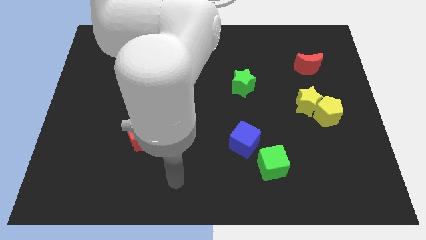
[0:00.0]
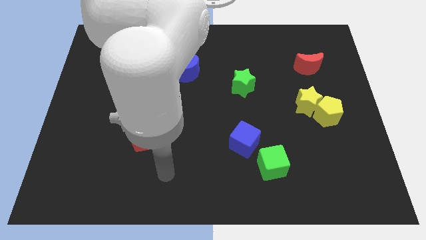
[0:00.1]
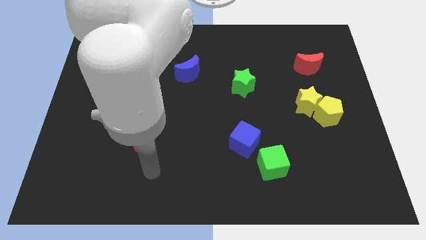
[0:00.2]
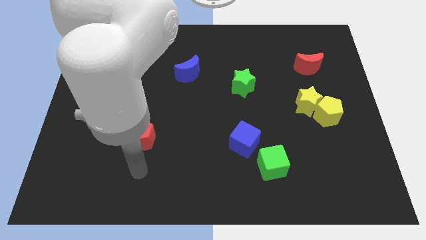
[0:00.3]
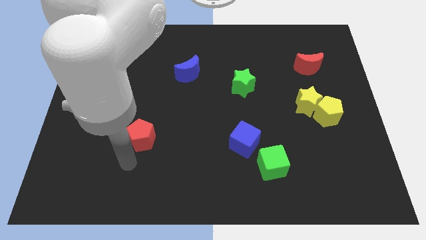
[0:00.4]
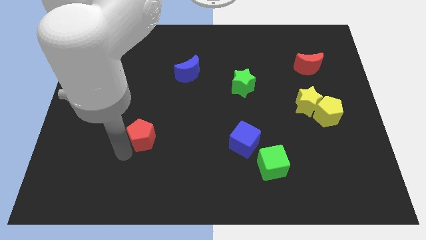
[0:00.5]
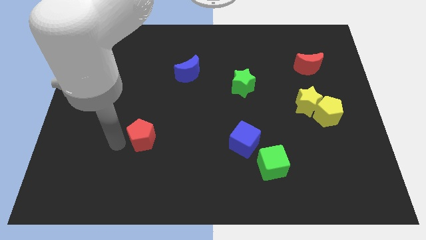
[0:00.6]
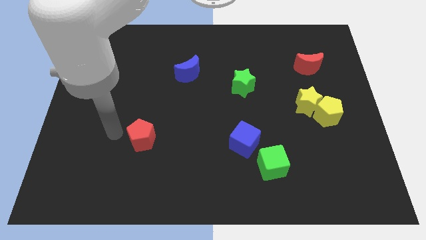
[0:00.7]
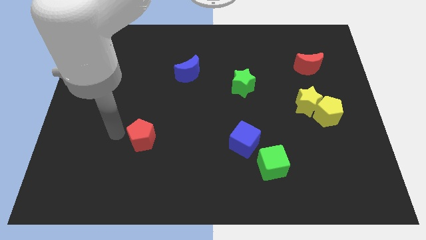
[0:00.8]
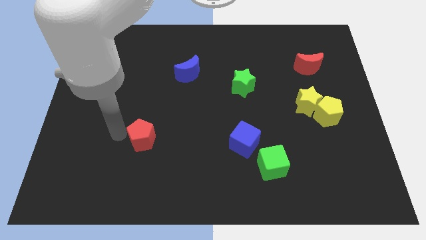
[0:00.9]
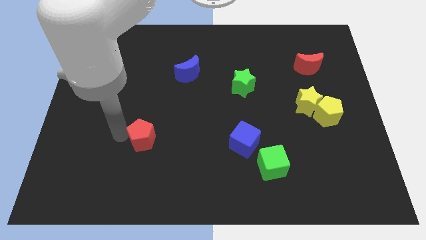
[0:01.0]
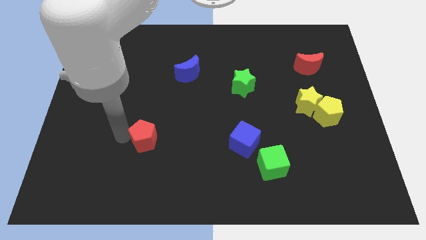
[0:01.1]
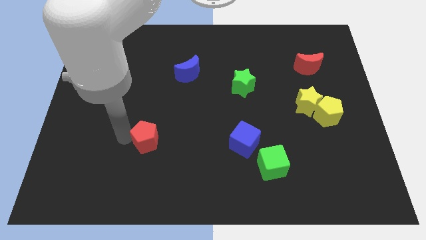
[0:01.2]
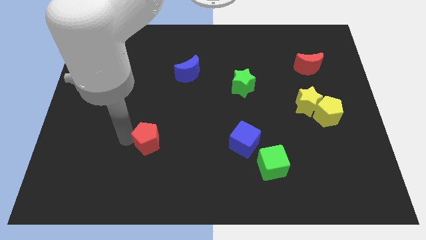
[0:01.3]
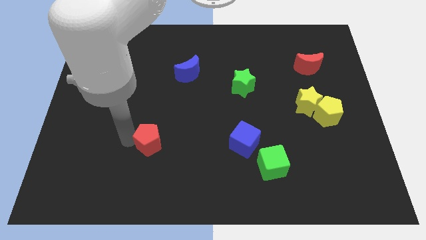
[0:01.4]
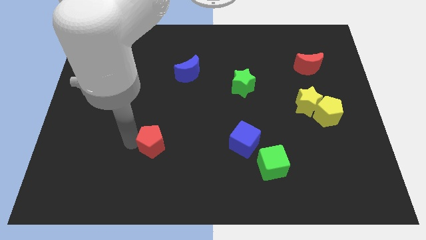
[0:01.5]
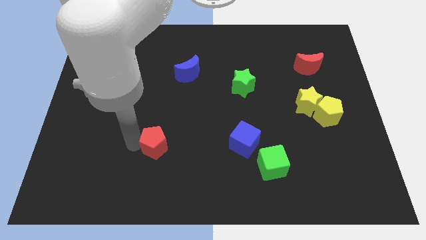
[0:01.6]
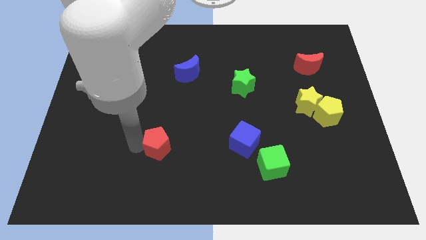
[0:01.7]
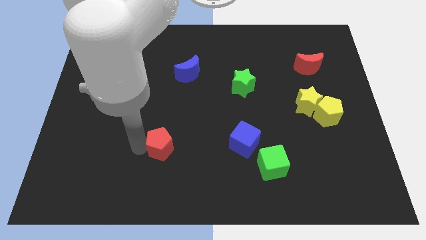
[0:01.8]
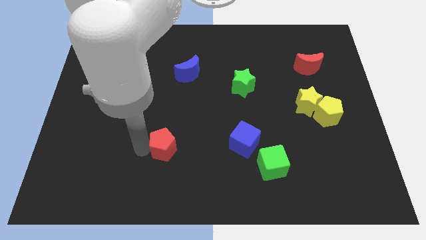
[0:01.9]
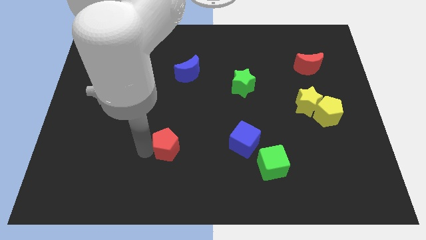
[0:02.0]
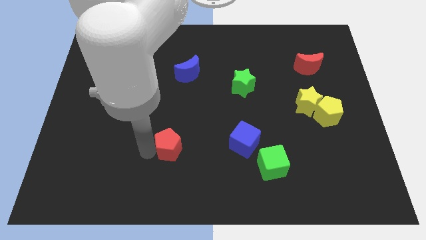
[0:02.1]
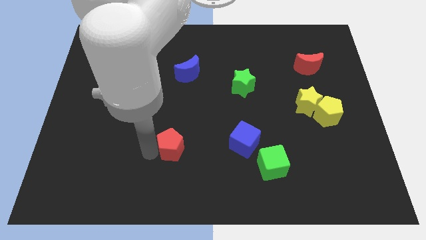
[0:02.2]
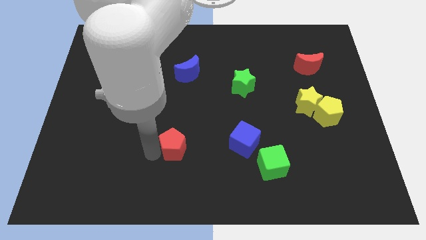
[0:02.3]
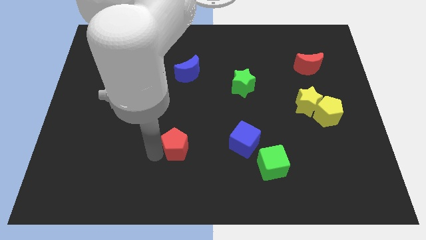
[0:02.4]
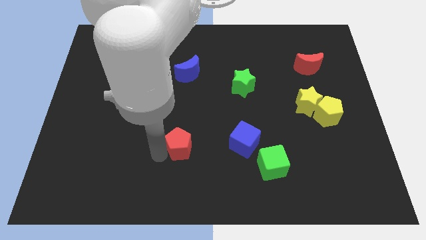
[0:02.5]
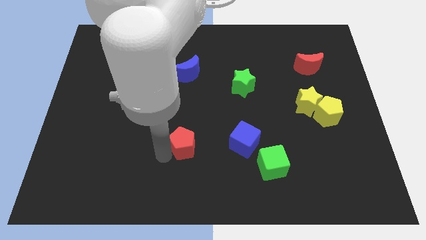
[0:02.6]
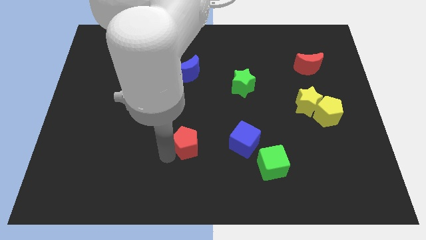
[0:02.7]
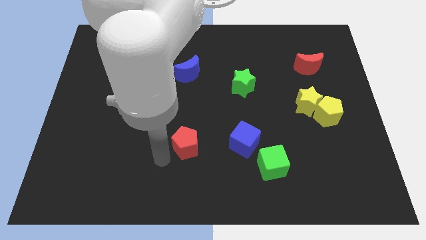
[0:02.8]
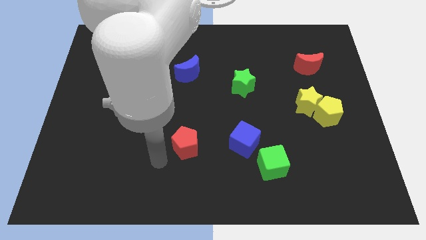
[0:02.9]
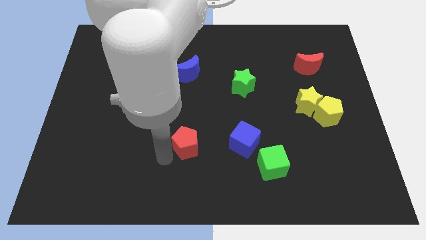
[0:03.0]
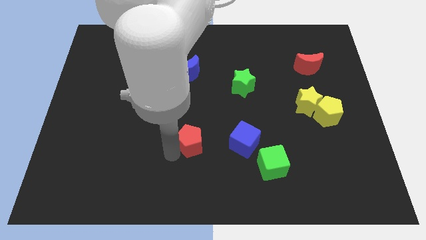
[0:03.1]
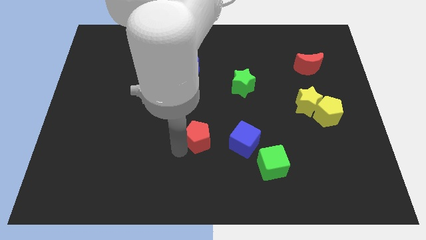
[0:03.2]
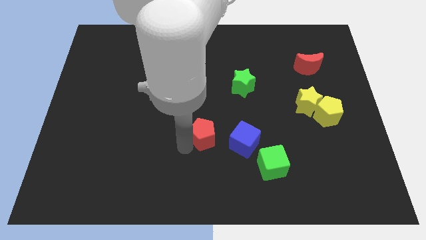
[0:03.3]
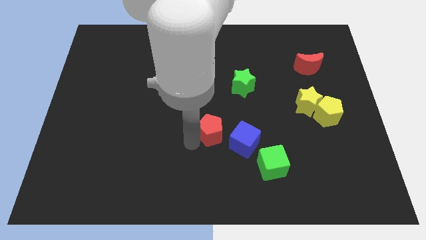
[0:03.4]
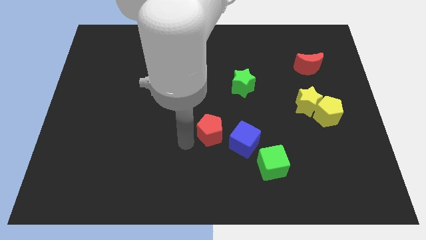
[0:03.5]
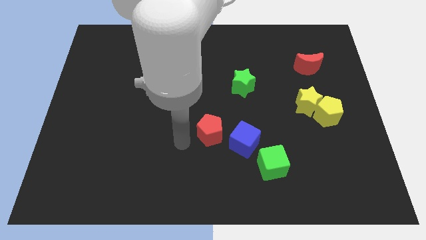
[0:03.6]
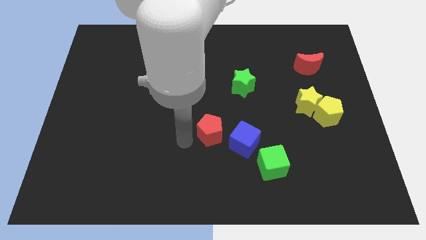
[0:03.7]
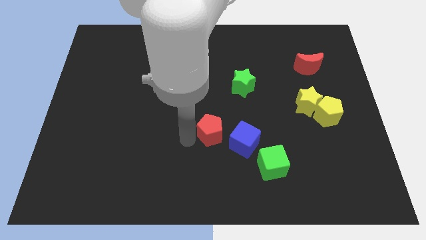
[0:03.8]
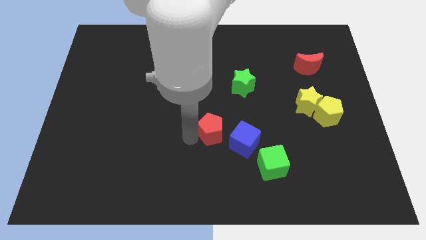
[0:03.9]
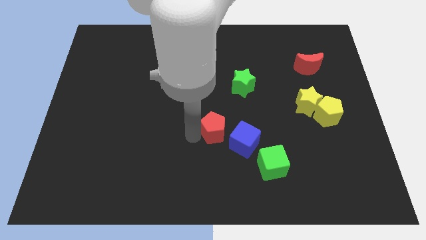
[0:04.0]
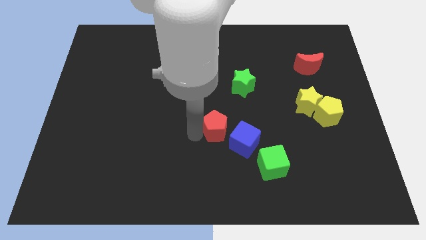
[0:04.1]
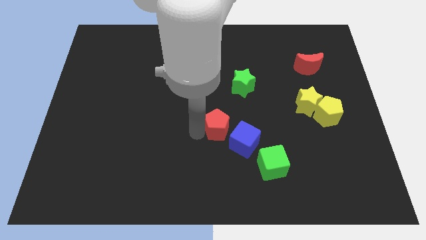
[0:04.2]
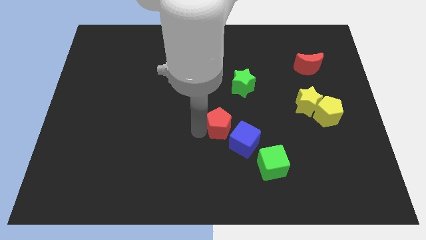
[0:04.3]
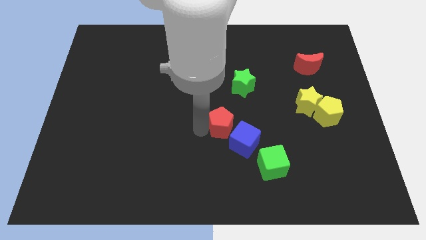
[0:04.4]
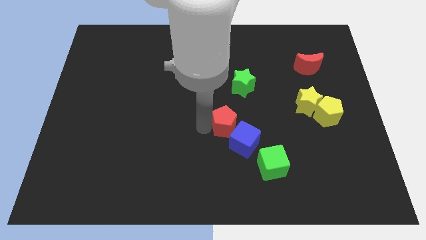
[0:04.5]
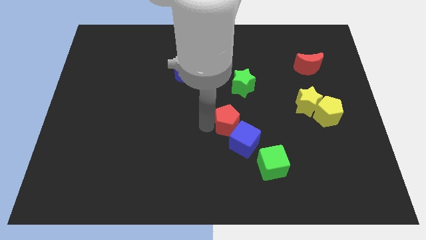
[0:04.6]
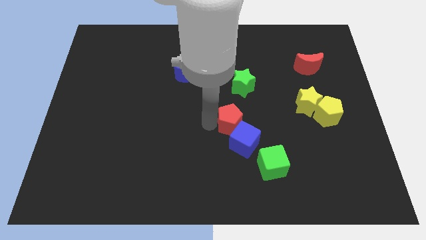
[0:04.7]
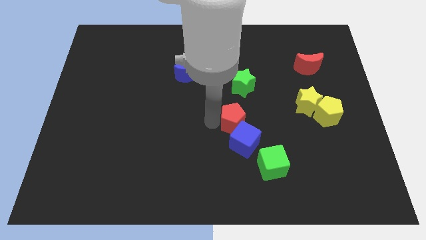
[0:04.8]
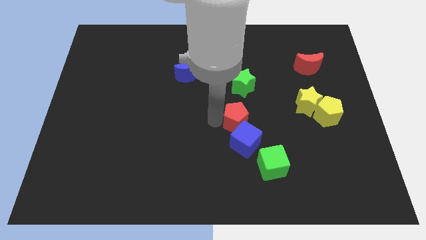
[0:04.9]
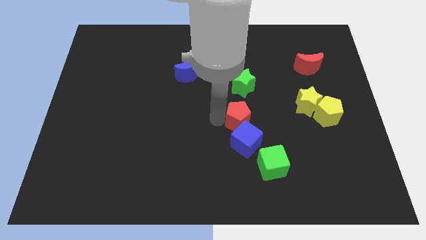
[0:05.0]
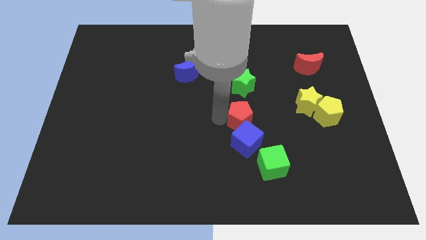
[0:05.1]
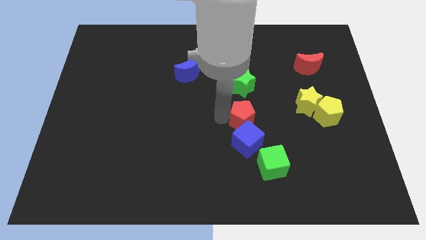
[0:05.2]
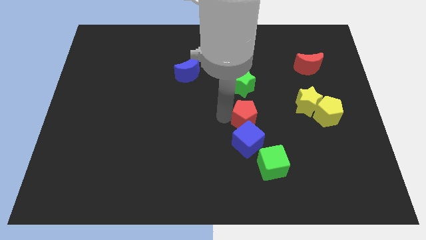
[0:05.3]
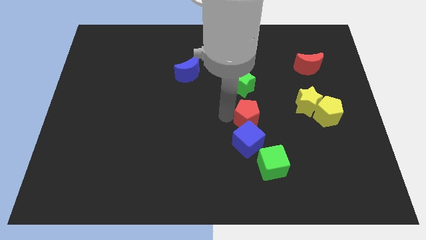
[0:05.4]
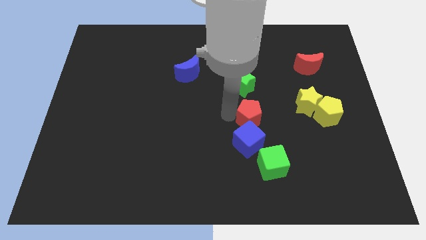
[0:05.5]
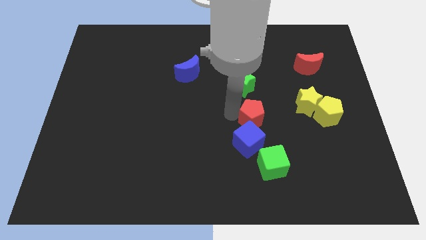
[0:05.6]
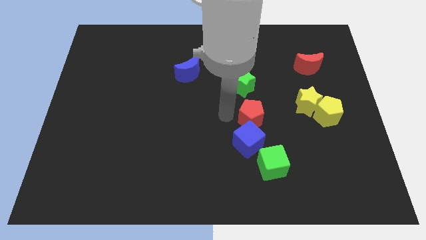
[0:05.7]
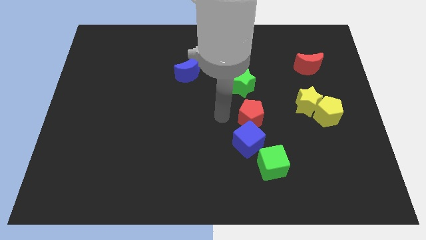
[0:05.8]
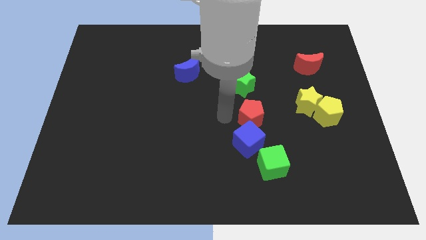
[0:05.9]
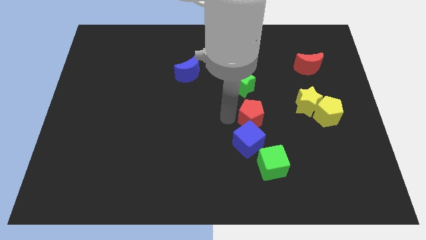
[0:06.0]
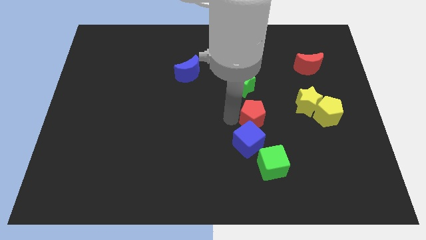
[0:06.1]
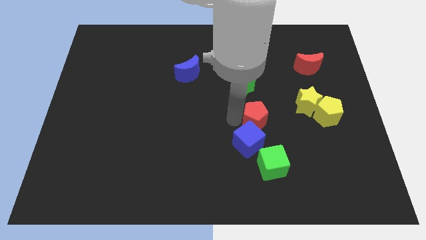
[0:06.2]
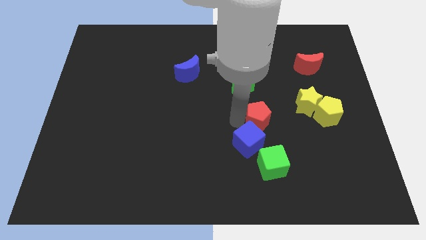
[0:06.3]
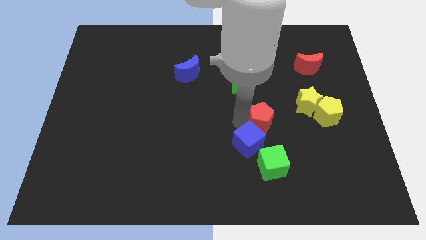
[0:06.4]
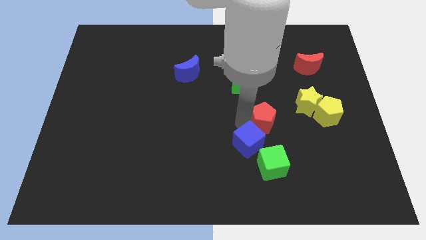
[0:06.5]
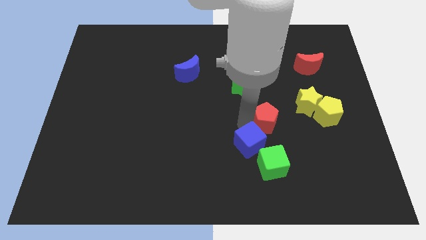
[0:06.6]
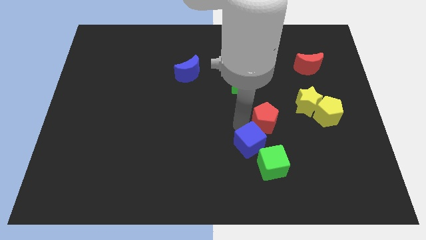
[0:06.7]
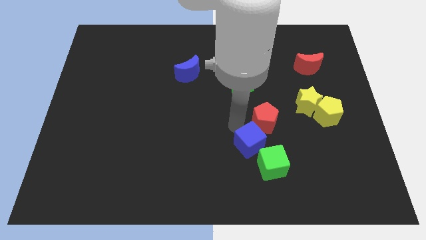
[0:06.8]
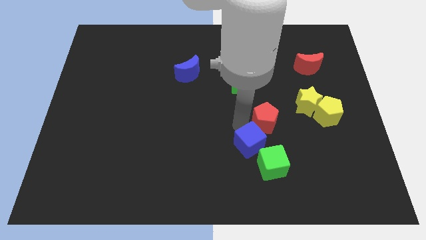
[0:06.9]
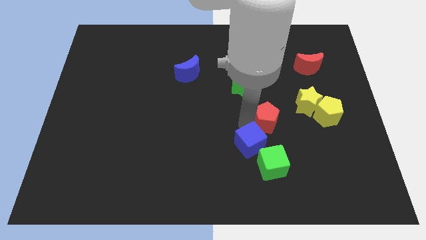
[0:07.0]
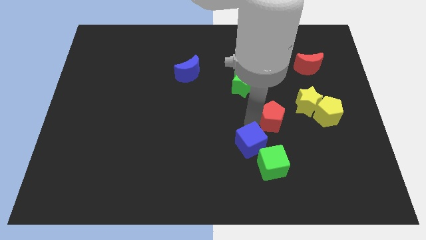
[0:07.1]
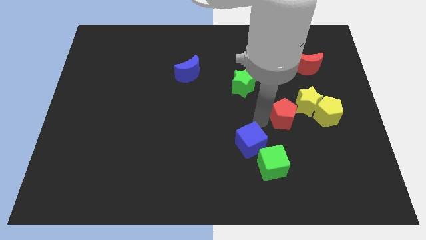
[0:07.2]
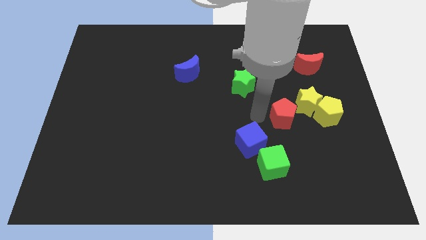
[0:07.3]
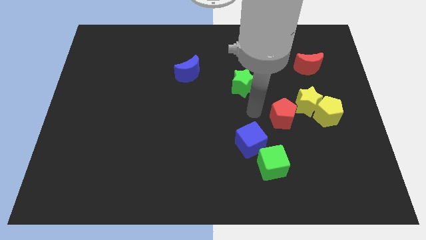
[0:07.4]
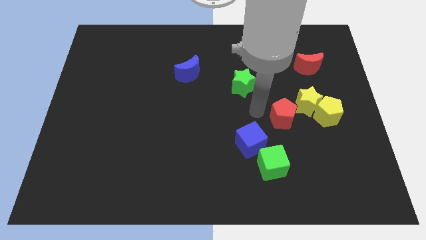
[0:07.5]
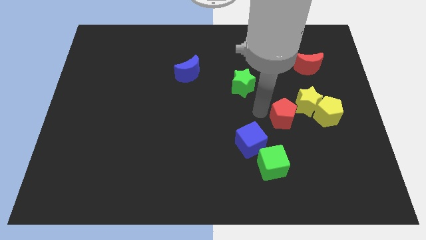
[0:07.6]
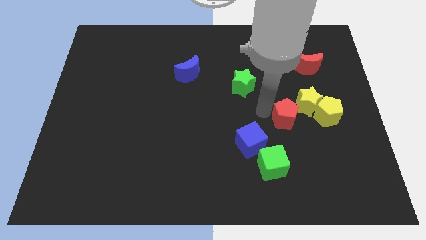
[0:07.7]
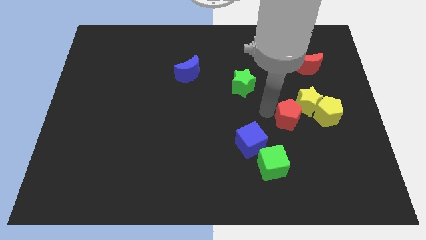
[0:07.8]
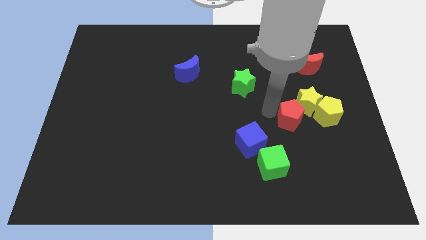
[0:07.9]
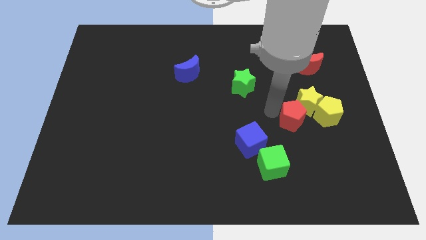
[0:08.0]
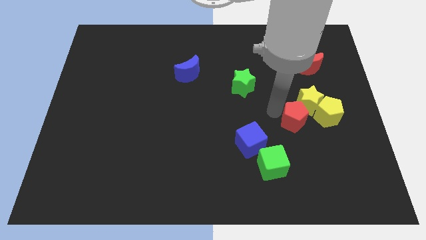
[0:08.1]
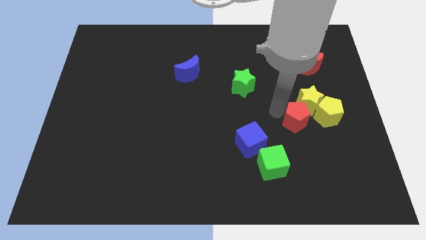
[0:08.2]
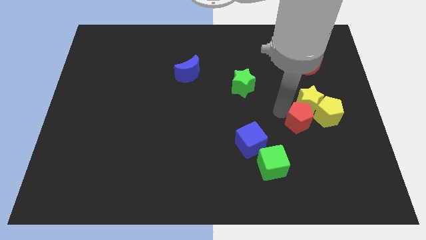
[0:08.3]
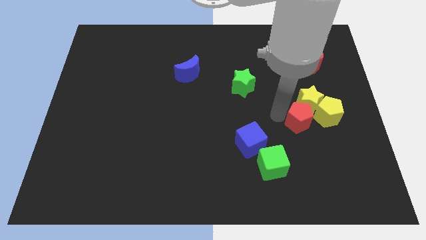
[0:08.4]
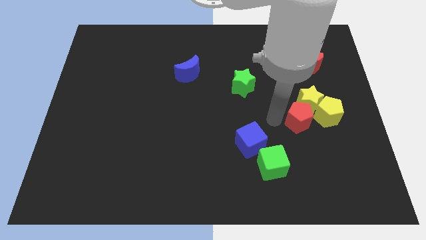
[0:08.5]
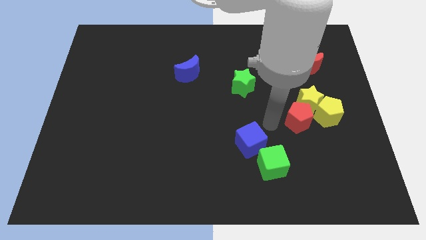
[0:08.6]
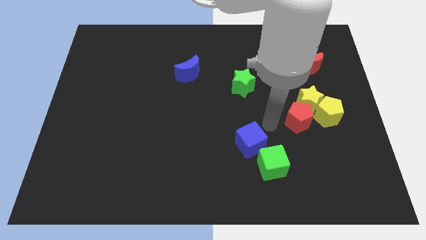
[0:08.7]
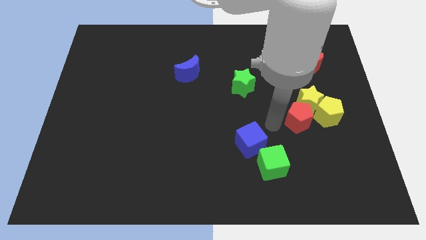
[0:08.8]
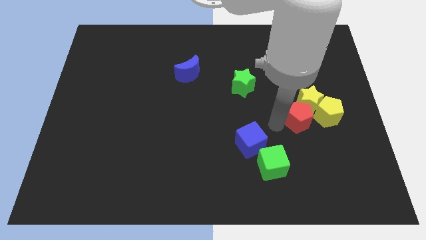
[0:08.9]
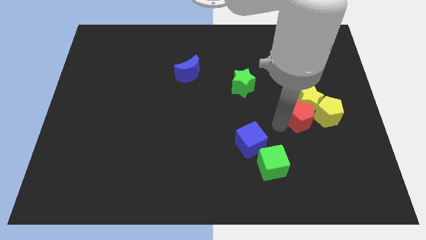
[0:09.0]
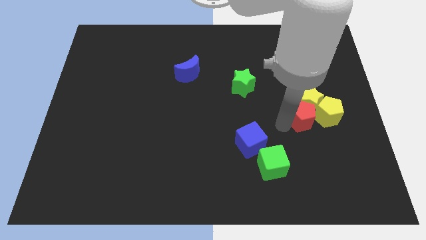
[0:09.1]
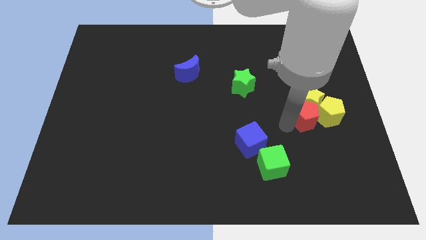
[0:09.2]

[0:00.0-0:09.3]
push the red pentagon to the yellow pentagon
